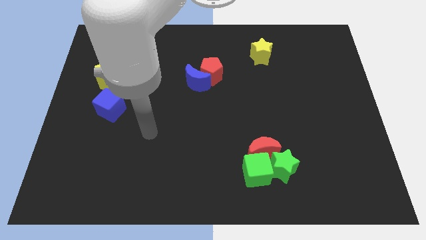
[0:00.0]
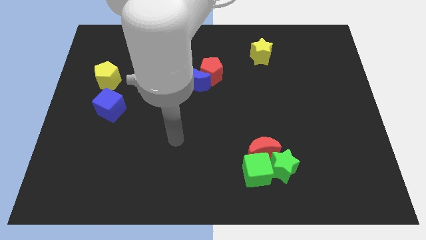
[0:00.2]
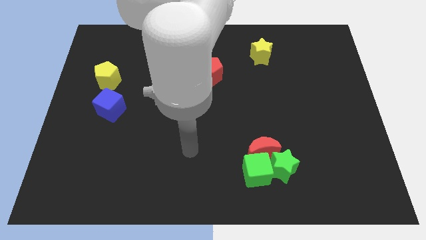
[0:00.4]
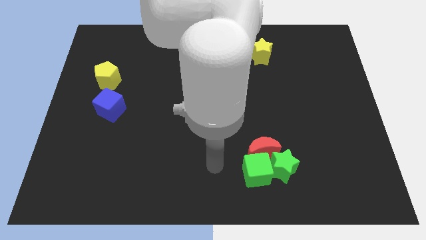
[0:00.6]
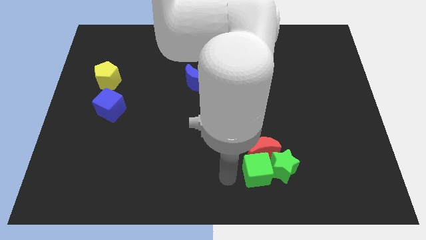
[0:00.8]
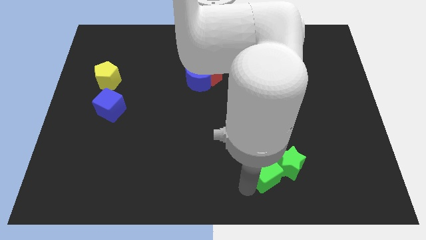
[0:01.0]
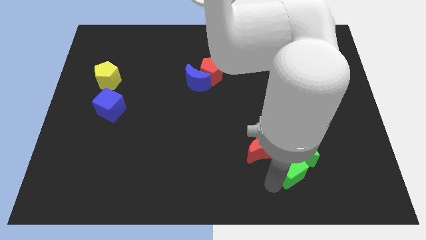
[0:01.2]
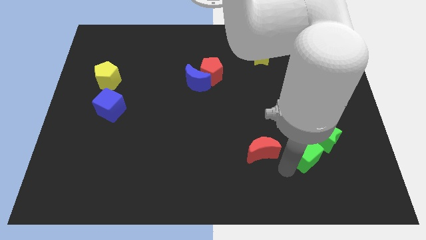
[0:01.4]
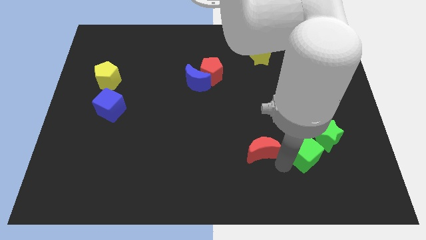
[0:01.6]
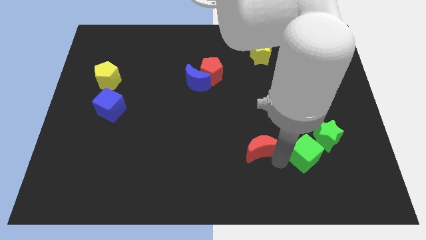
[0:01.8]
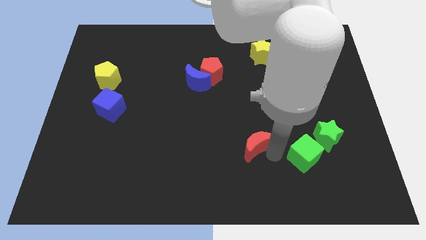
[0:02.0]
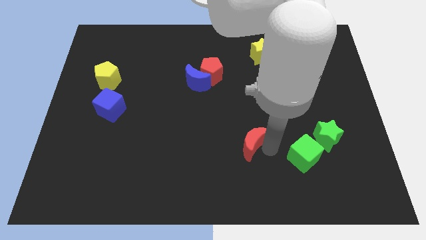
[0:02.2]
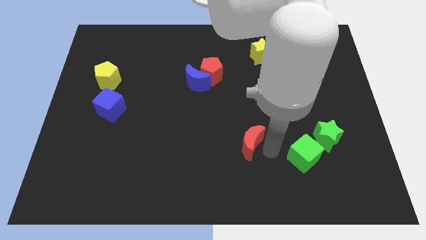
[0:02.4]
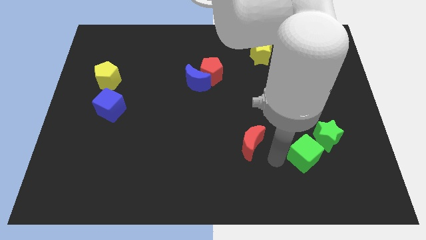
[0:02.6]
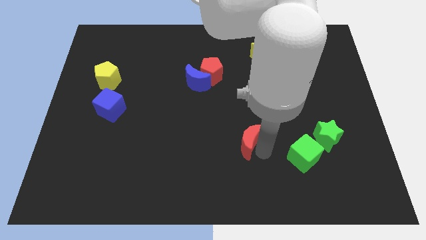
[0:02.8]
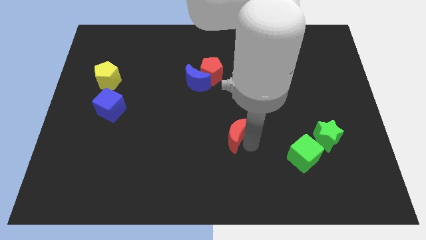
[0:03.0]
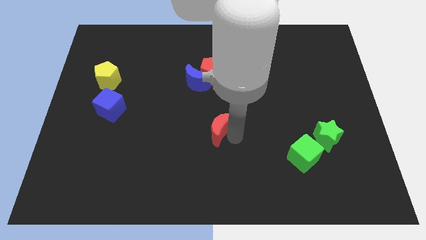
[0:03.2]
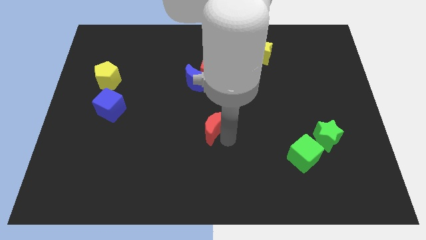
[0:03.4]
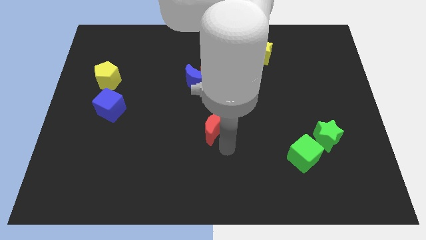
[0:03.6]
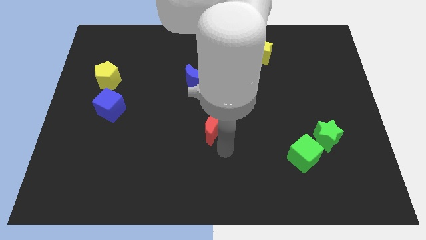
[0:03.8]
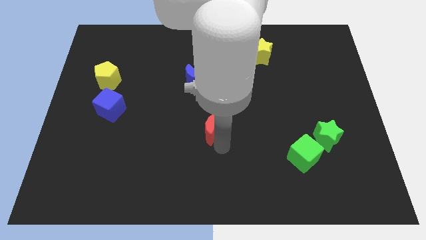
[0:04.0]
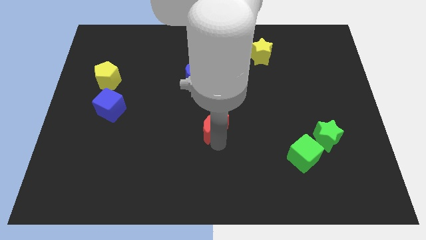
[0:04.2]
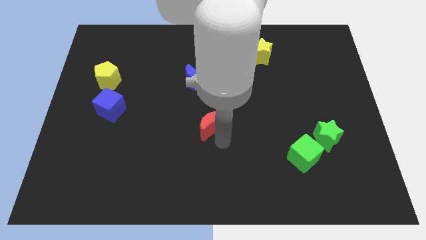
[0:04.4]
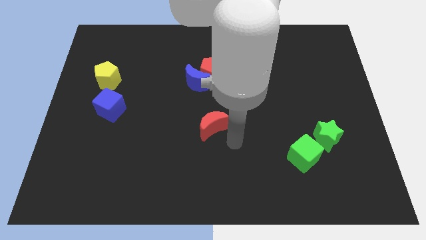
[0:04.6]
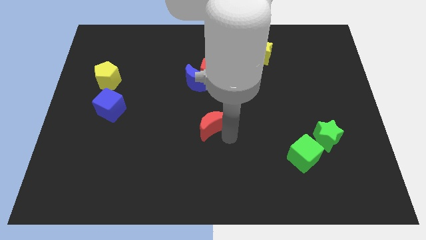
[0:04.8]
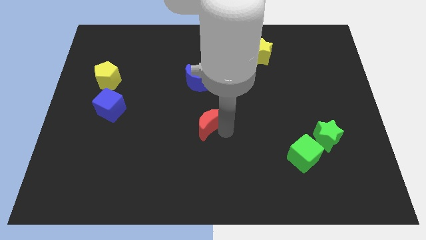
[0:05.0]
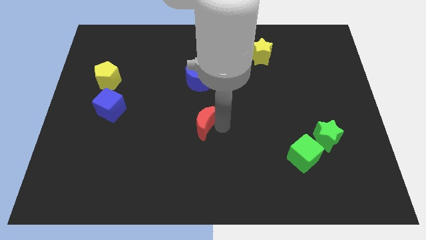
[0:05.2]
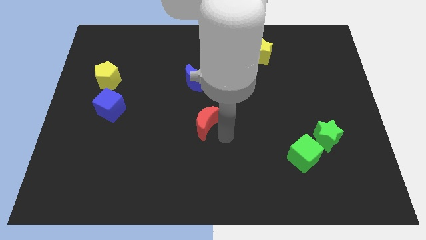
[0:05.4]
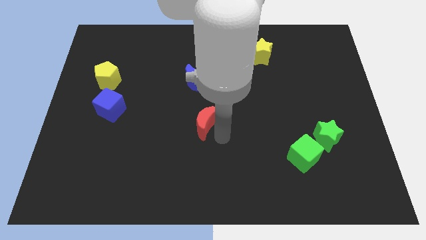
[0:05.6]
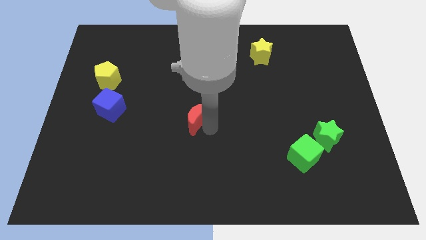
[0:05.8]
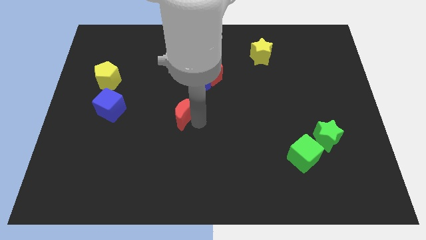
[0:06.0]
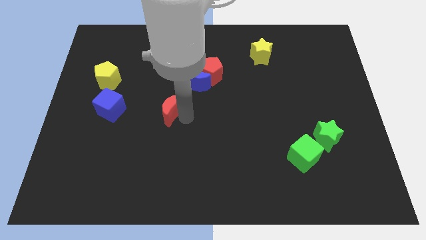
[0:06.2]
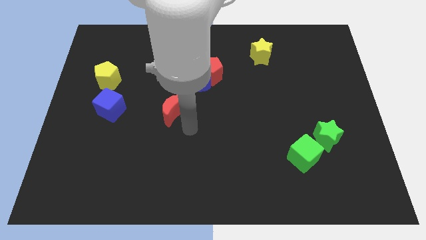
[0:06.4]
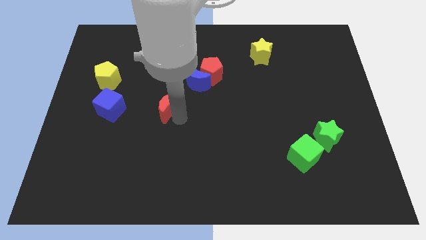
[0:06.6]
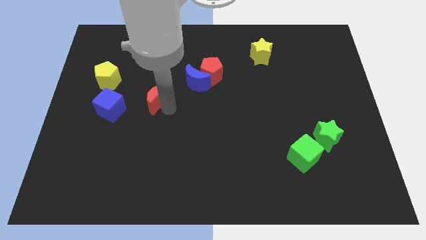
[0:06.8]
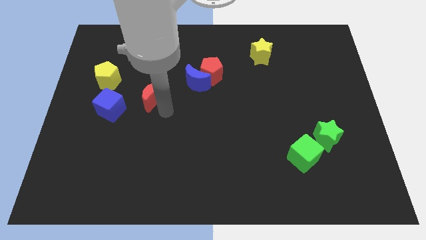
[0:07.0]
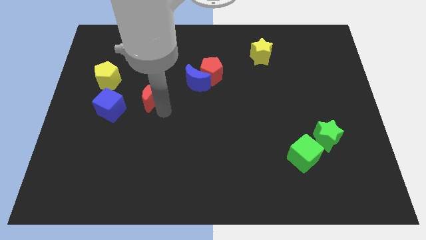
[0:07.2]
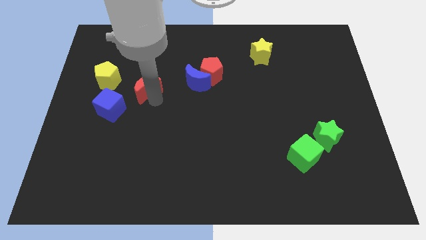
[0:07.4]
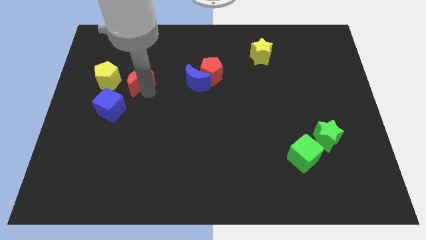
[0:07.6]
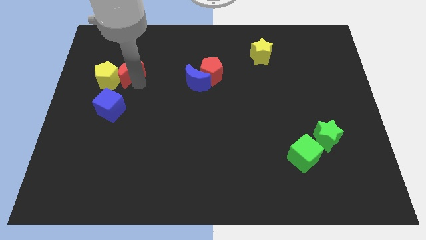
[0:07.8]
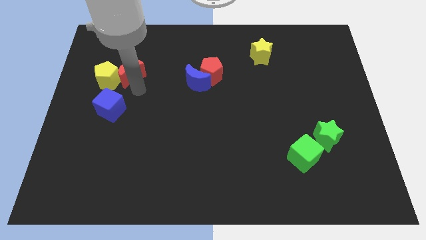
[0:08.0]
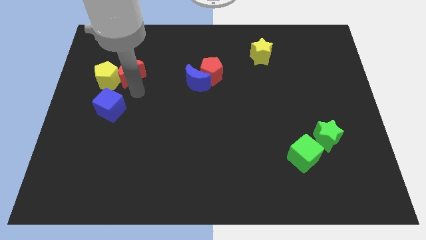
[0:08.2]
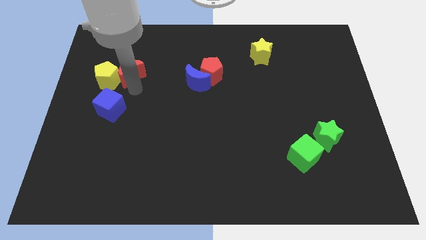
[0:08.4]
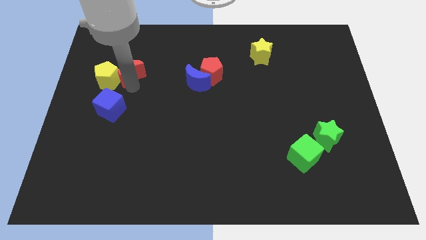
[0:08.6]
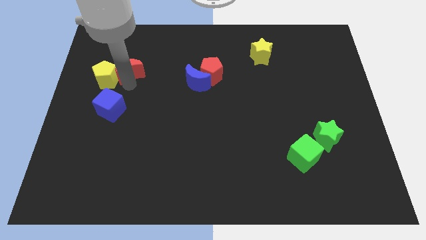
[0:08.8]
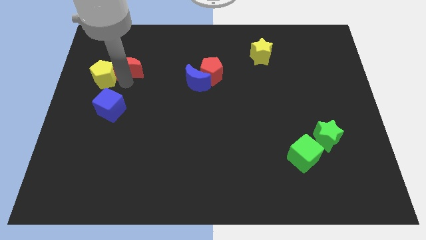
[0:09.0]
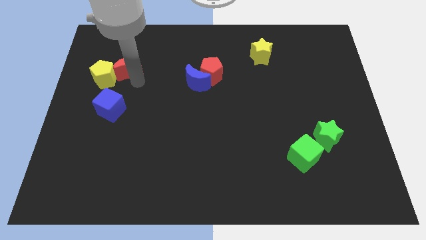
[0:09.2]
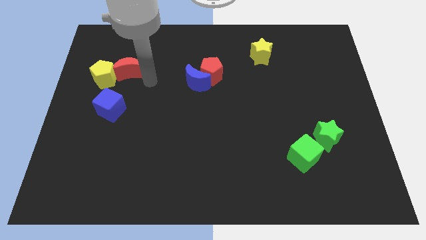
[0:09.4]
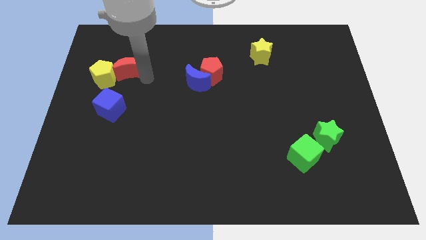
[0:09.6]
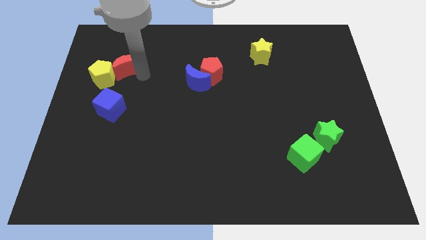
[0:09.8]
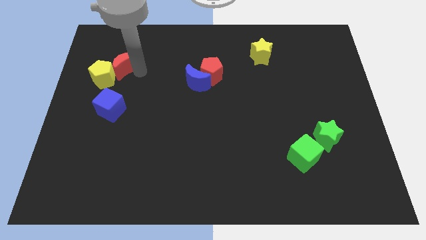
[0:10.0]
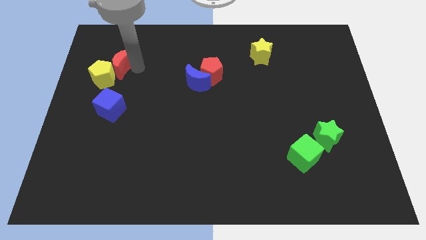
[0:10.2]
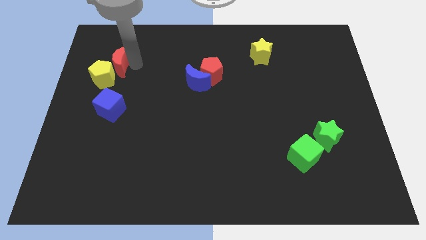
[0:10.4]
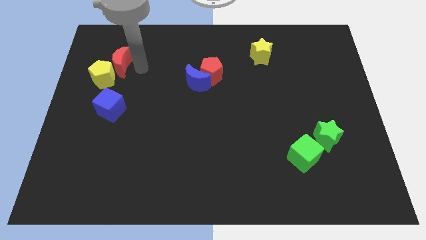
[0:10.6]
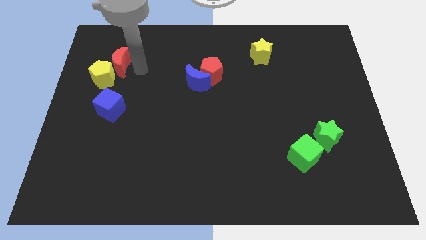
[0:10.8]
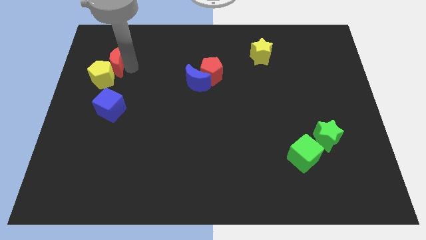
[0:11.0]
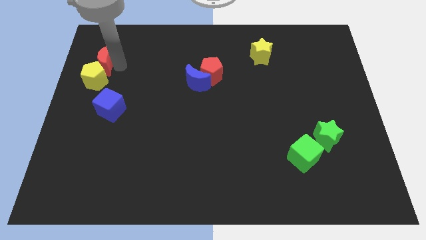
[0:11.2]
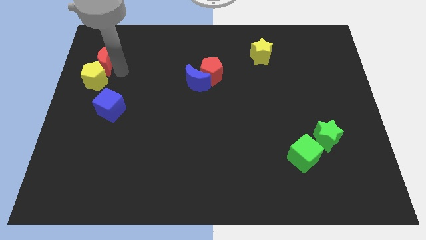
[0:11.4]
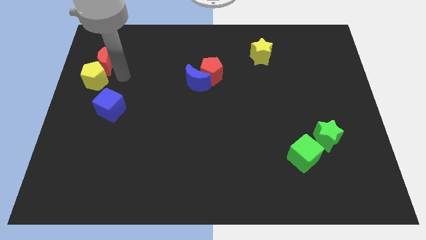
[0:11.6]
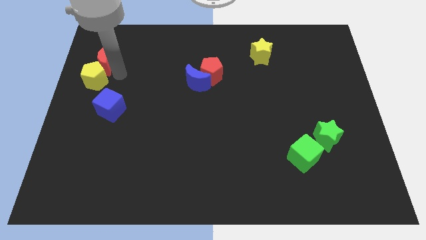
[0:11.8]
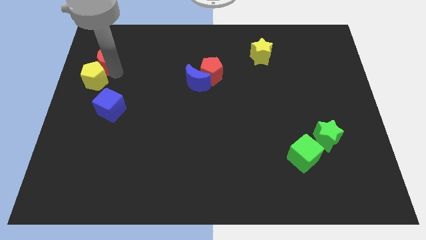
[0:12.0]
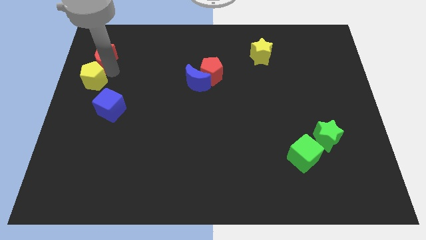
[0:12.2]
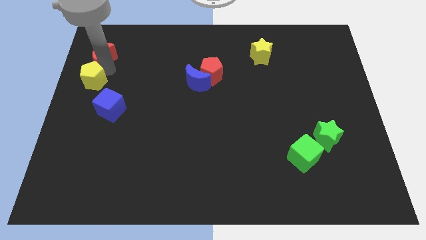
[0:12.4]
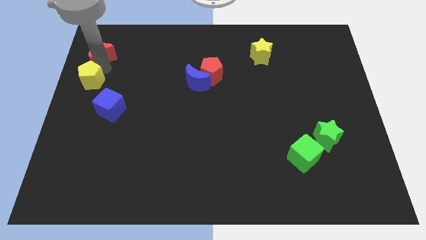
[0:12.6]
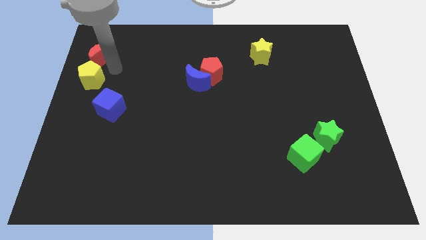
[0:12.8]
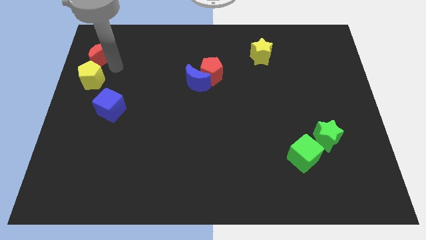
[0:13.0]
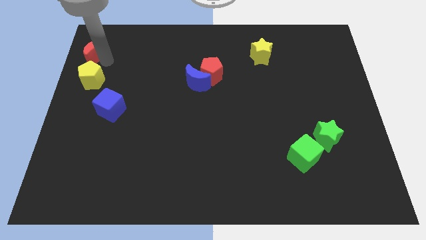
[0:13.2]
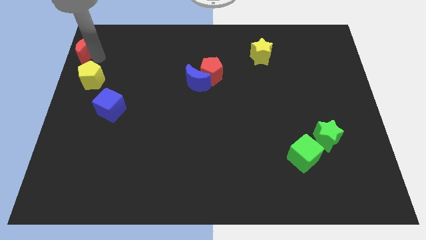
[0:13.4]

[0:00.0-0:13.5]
slide the red moon to the top left corner
